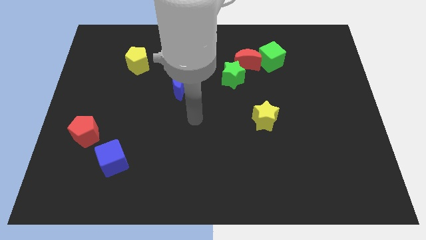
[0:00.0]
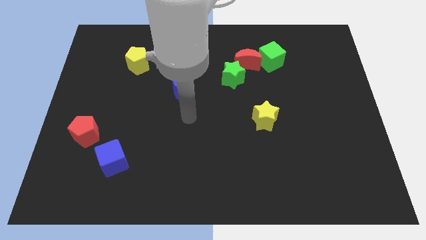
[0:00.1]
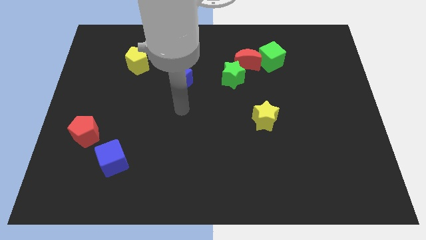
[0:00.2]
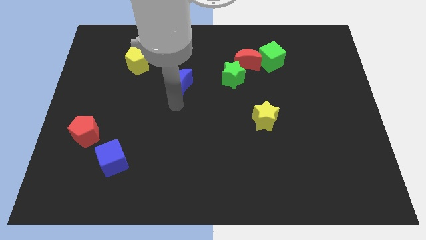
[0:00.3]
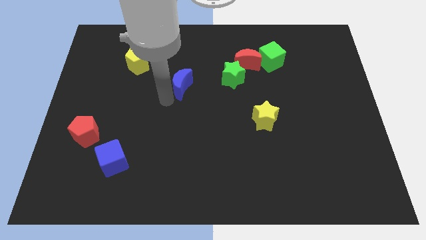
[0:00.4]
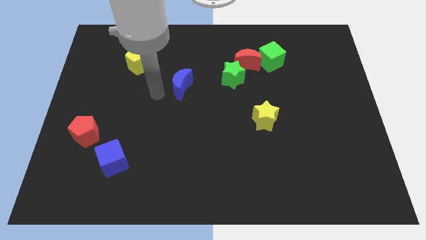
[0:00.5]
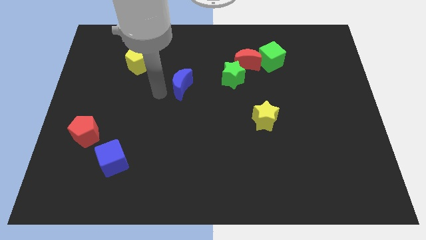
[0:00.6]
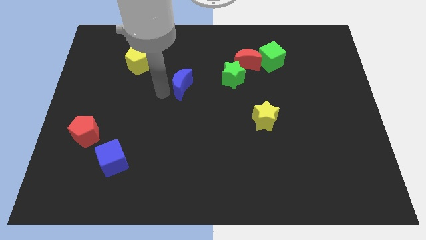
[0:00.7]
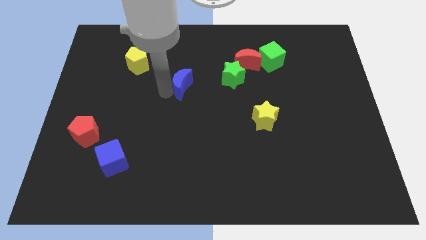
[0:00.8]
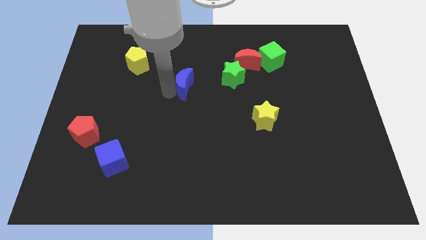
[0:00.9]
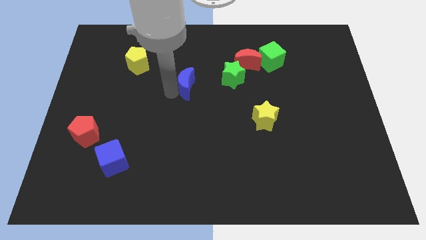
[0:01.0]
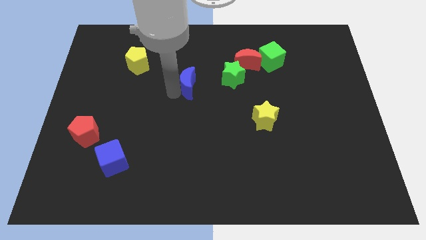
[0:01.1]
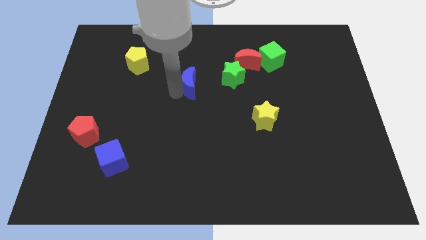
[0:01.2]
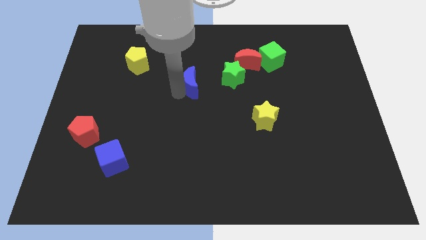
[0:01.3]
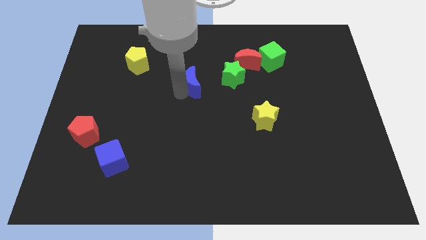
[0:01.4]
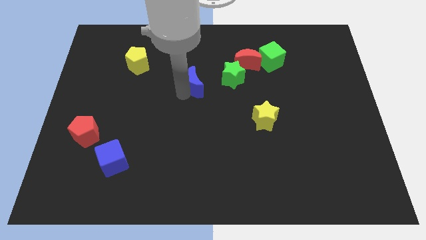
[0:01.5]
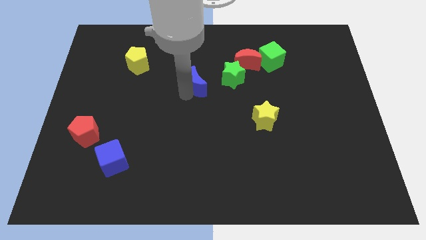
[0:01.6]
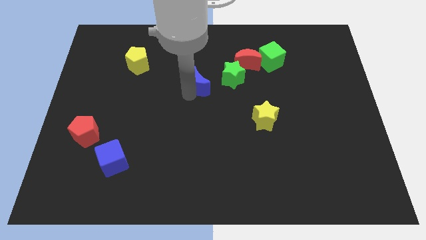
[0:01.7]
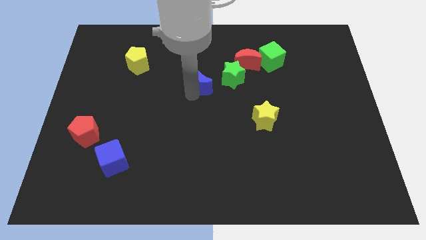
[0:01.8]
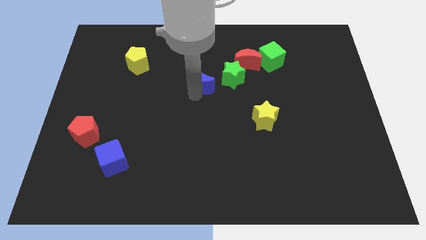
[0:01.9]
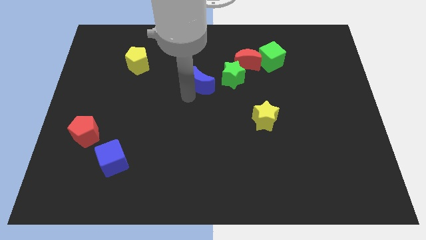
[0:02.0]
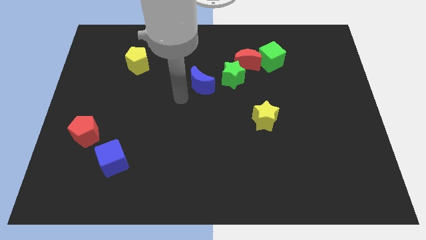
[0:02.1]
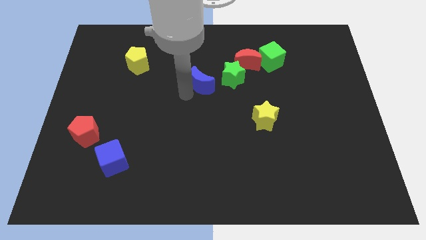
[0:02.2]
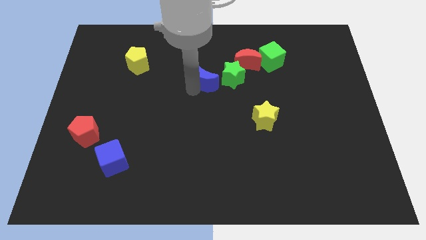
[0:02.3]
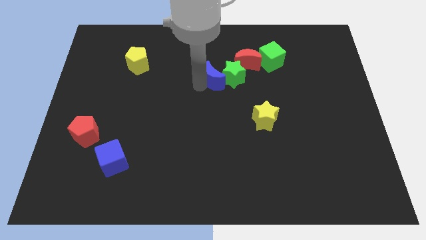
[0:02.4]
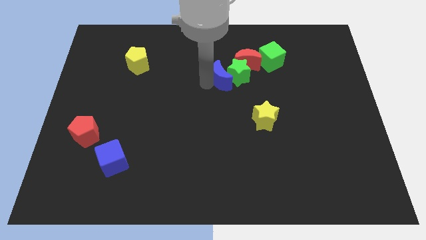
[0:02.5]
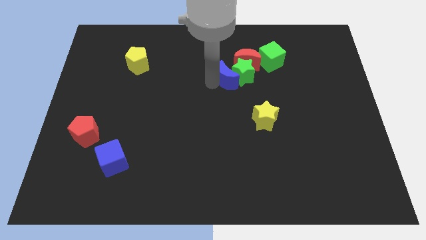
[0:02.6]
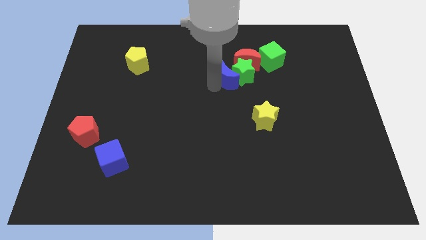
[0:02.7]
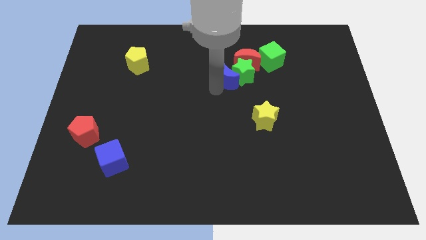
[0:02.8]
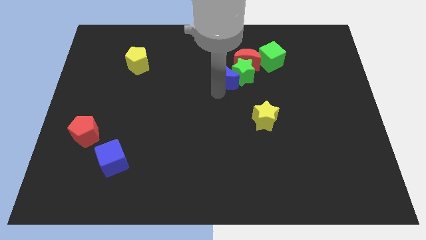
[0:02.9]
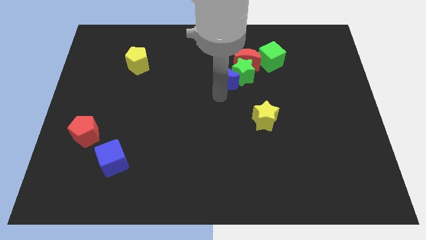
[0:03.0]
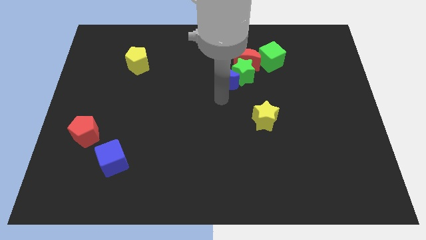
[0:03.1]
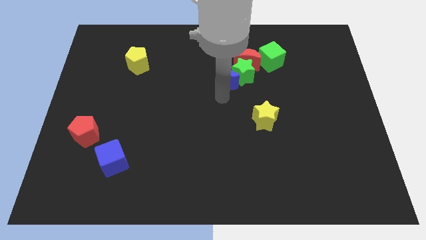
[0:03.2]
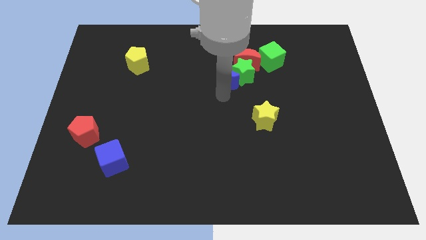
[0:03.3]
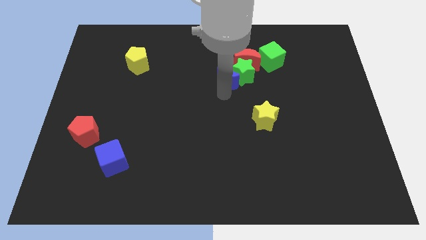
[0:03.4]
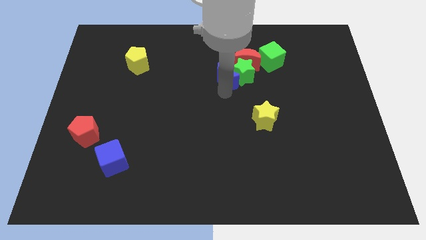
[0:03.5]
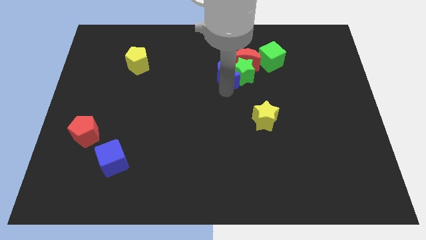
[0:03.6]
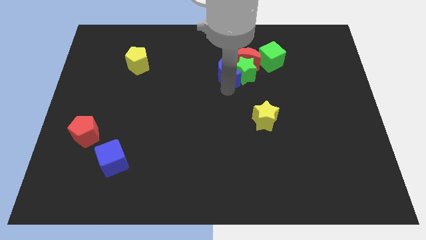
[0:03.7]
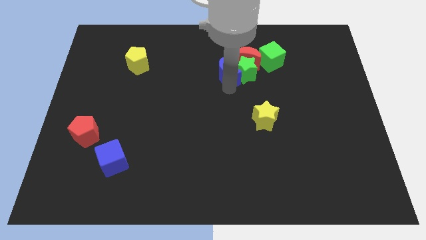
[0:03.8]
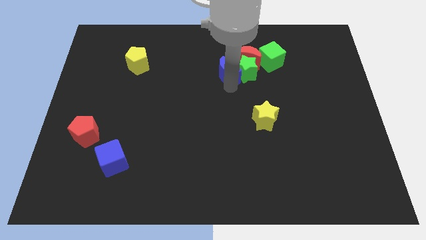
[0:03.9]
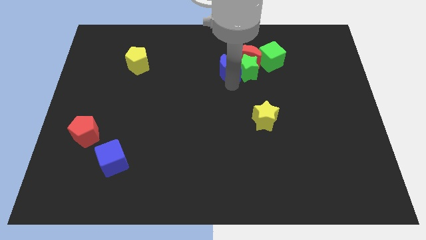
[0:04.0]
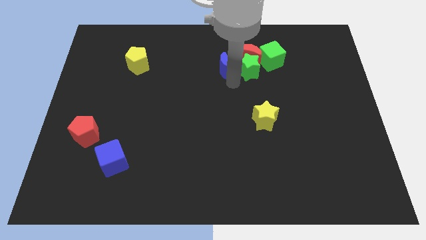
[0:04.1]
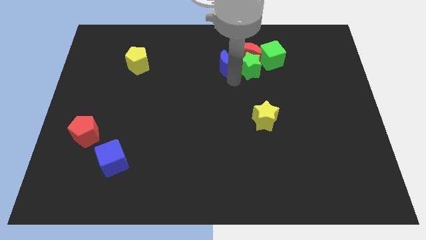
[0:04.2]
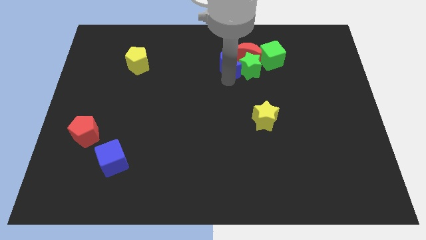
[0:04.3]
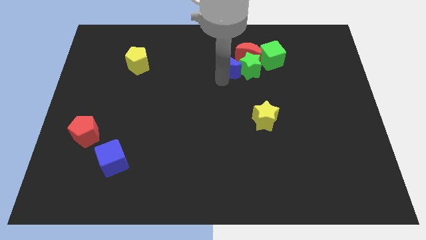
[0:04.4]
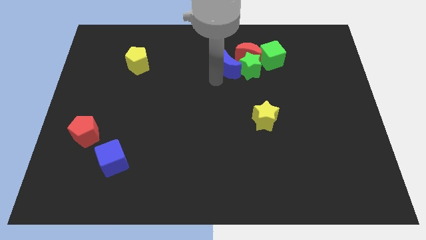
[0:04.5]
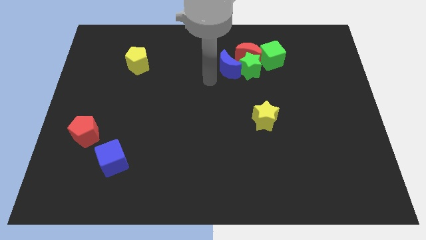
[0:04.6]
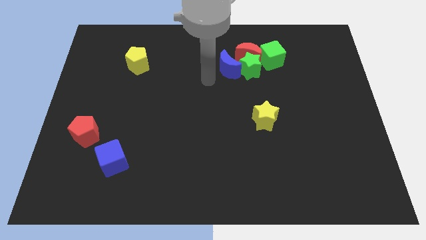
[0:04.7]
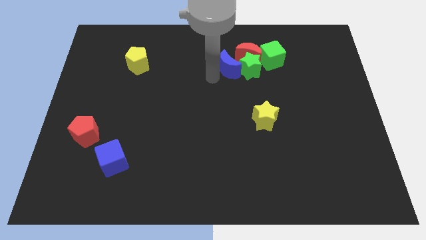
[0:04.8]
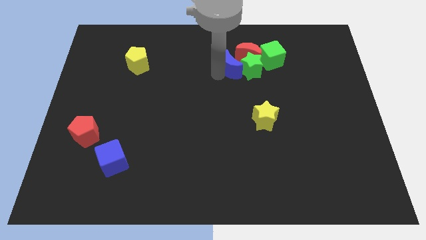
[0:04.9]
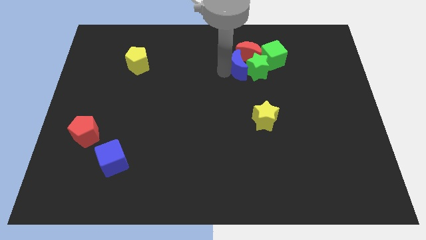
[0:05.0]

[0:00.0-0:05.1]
move the blue moon to the red moon

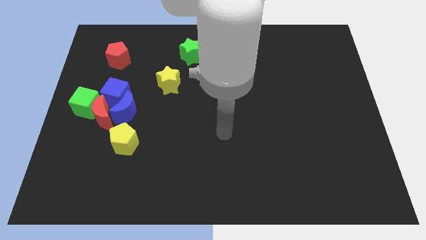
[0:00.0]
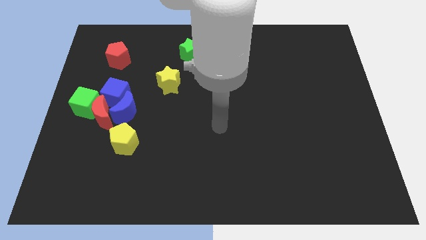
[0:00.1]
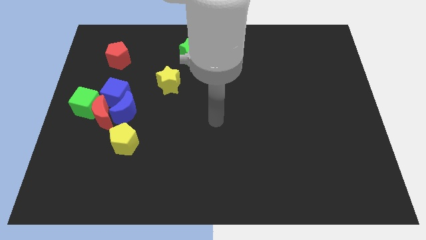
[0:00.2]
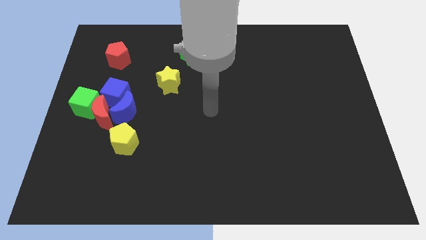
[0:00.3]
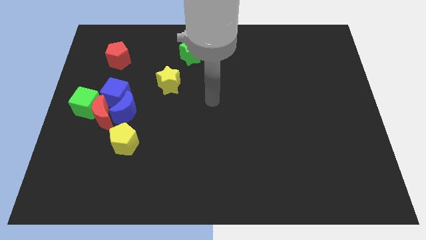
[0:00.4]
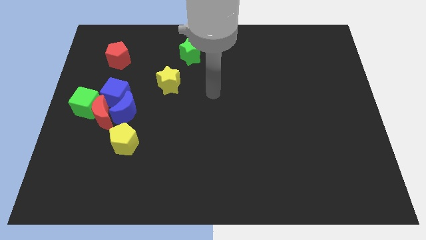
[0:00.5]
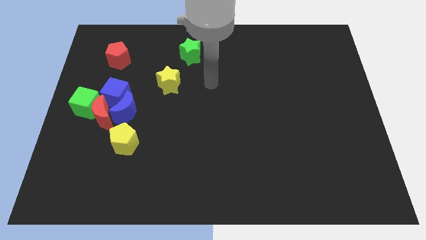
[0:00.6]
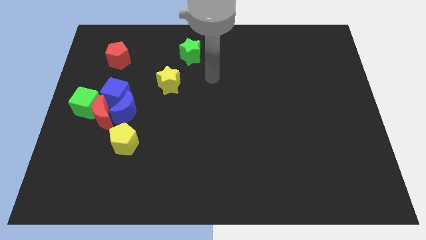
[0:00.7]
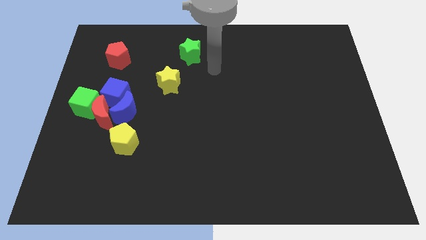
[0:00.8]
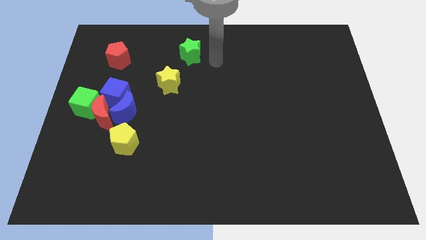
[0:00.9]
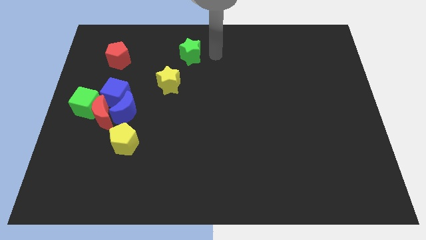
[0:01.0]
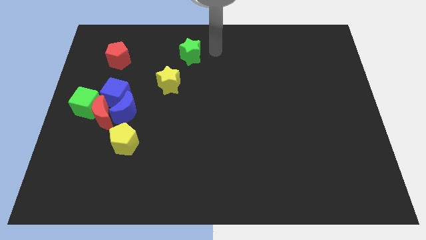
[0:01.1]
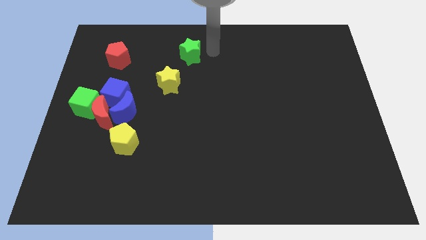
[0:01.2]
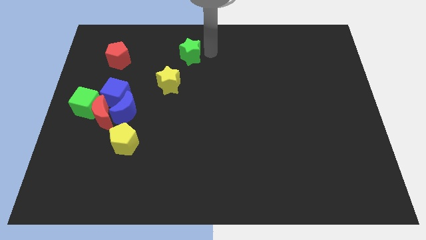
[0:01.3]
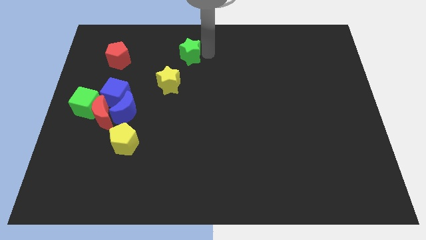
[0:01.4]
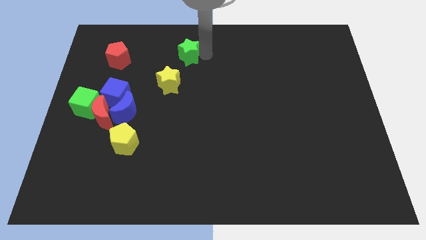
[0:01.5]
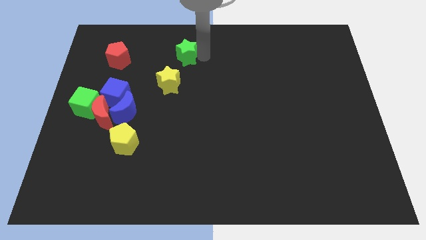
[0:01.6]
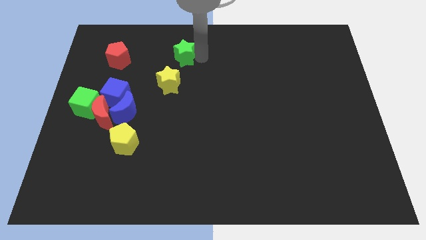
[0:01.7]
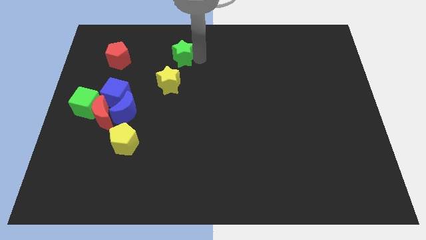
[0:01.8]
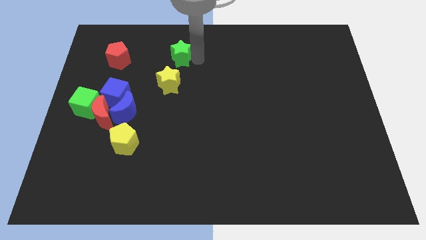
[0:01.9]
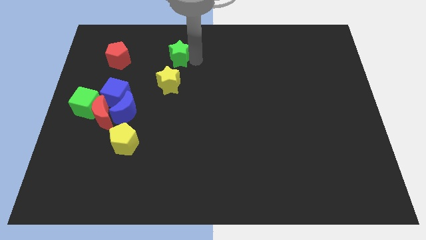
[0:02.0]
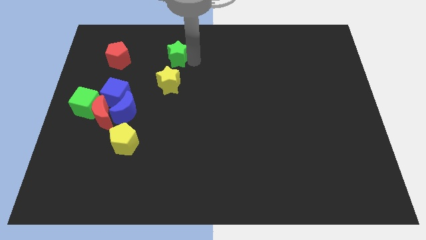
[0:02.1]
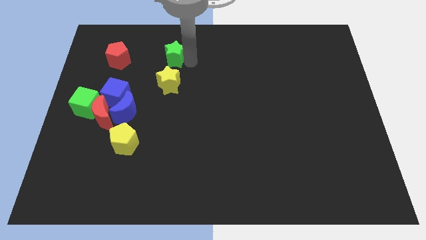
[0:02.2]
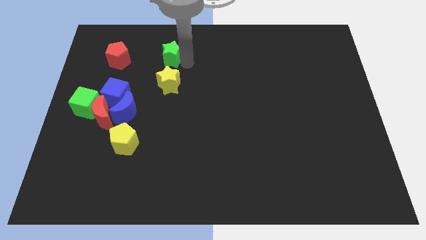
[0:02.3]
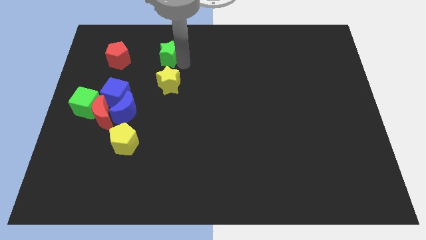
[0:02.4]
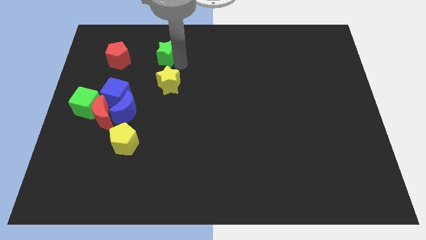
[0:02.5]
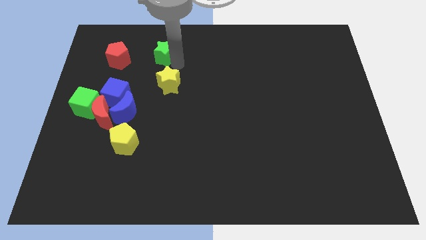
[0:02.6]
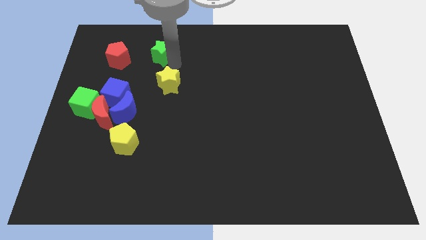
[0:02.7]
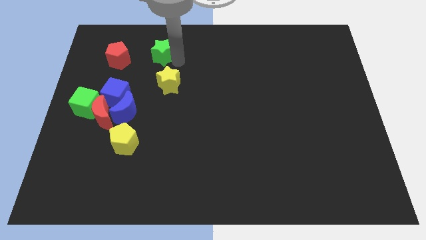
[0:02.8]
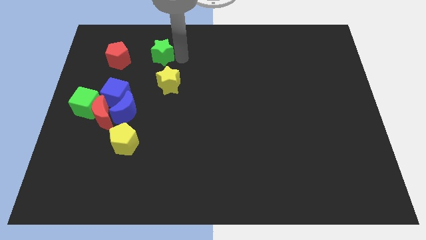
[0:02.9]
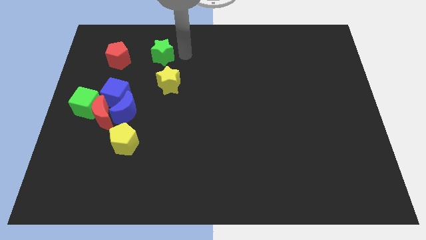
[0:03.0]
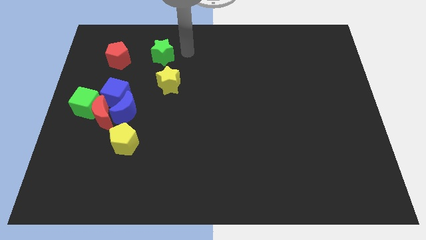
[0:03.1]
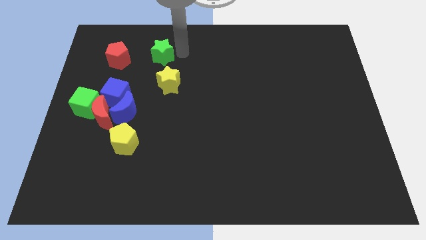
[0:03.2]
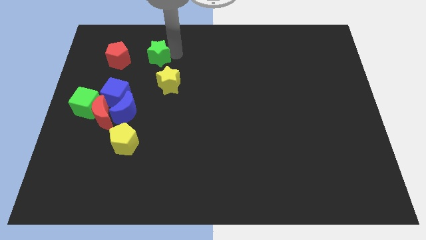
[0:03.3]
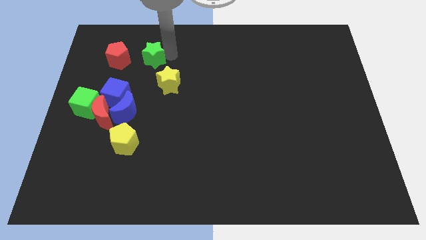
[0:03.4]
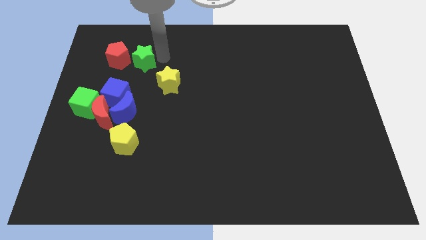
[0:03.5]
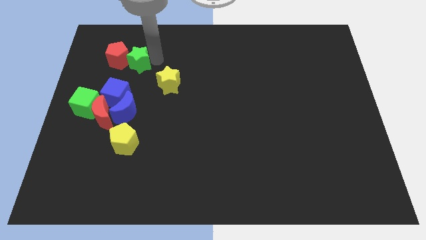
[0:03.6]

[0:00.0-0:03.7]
push the green star to the red pentagon
